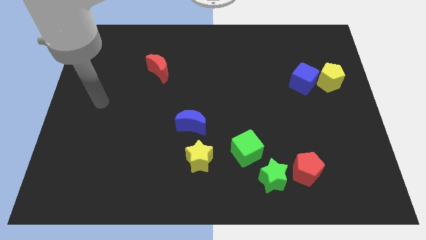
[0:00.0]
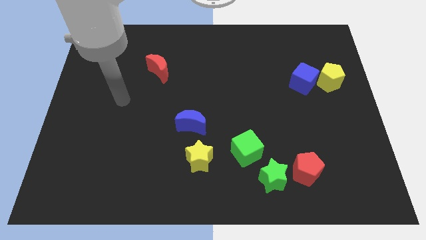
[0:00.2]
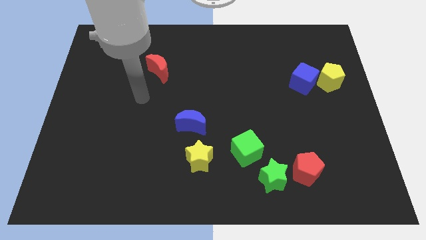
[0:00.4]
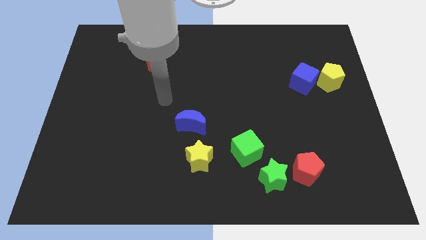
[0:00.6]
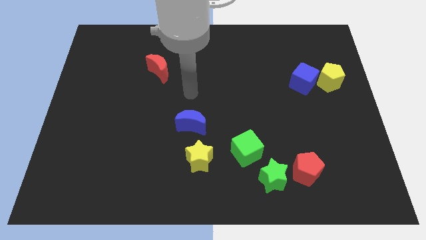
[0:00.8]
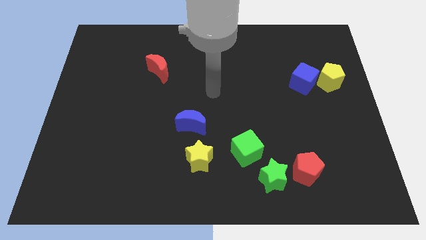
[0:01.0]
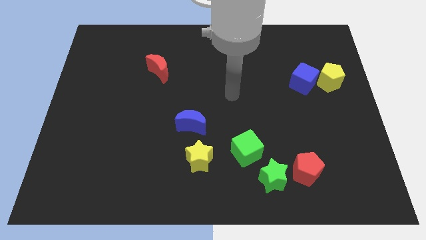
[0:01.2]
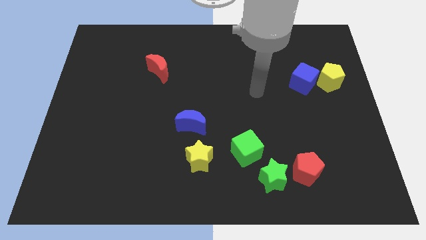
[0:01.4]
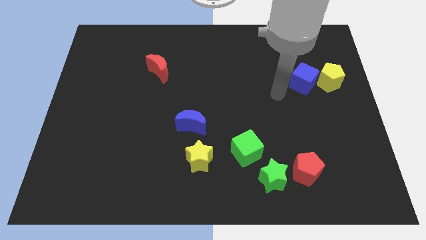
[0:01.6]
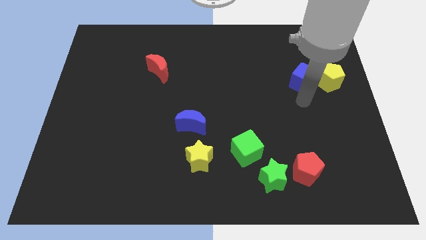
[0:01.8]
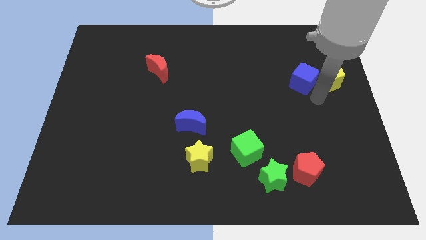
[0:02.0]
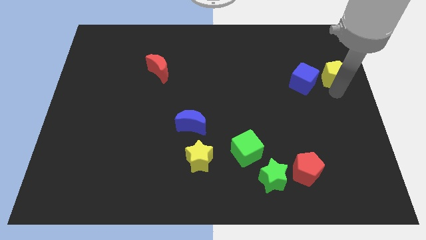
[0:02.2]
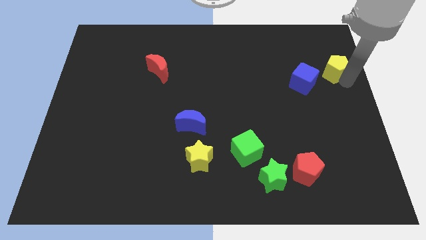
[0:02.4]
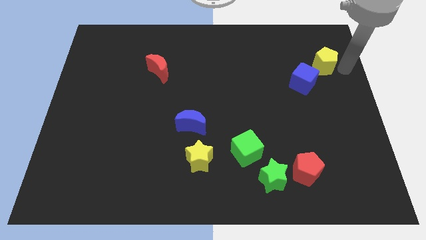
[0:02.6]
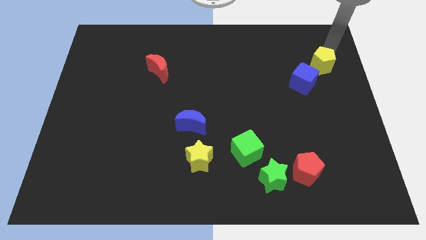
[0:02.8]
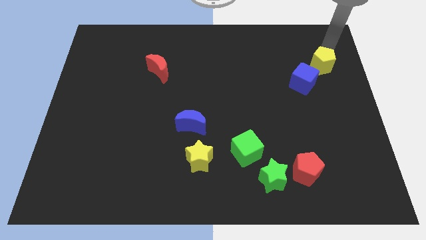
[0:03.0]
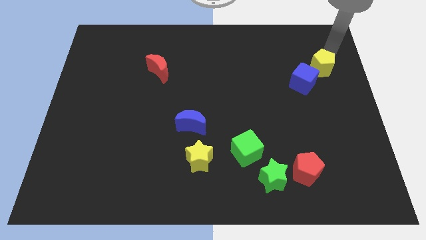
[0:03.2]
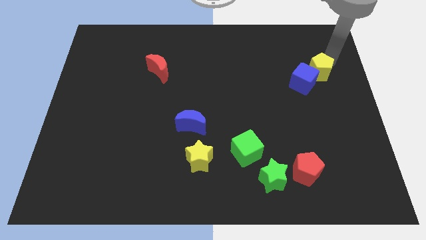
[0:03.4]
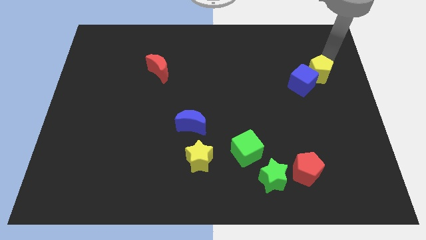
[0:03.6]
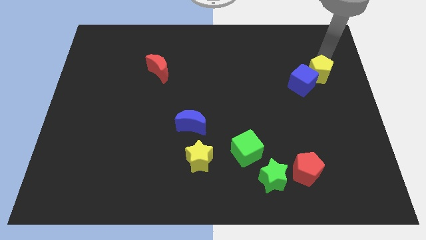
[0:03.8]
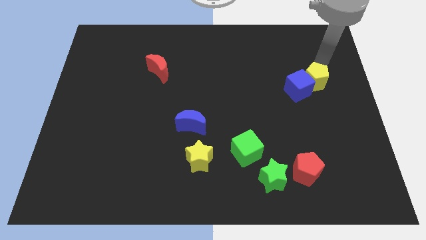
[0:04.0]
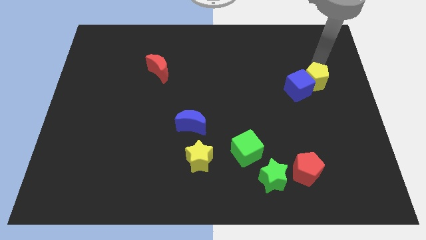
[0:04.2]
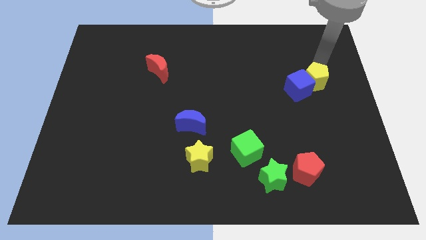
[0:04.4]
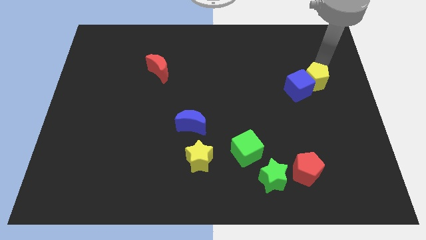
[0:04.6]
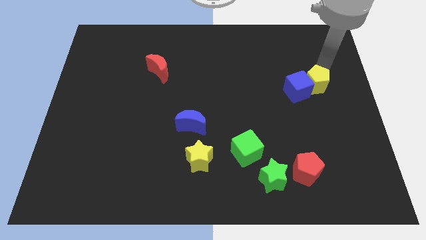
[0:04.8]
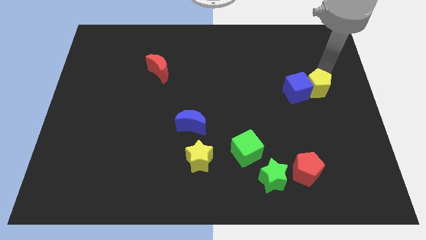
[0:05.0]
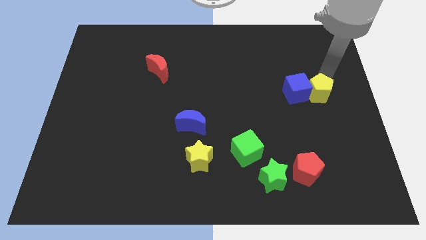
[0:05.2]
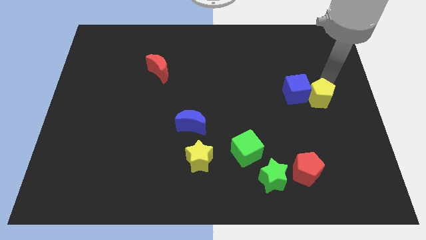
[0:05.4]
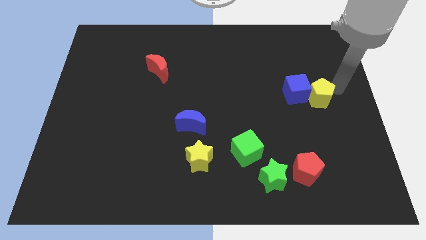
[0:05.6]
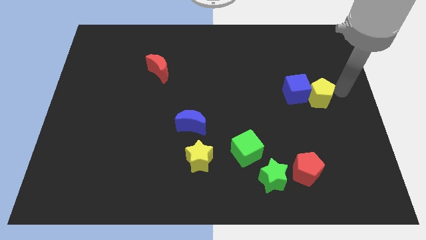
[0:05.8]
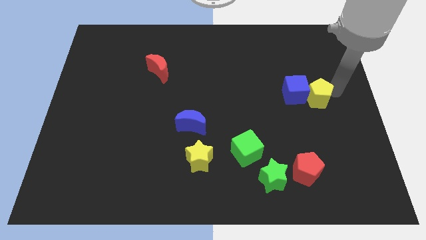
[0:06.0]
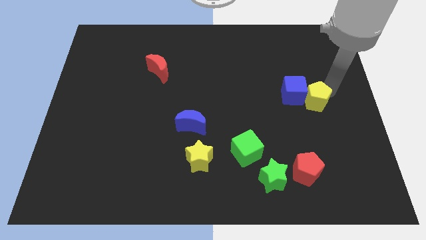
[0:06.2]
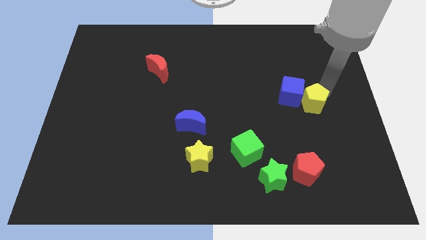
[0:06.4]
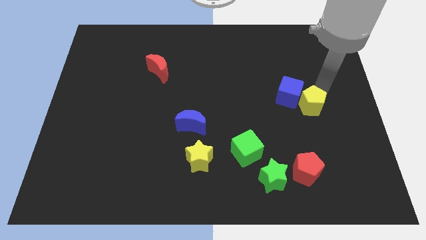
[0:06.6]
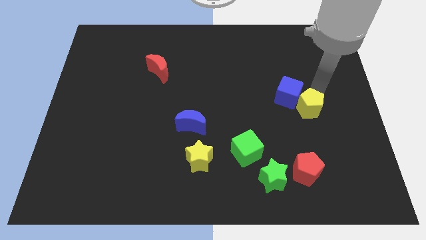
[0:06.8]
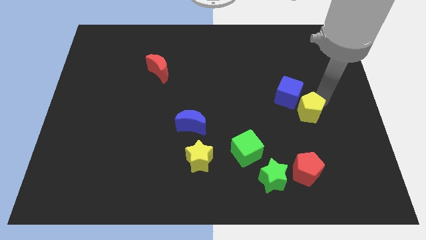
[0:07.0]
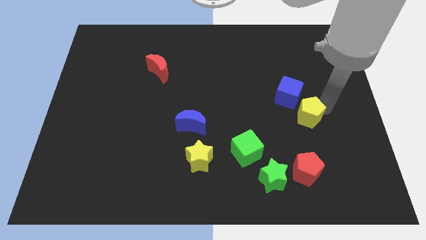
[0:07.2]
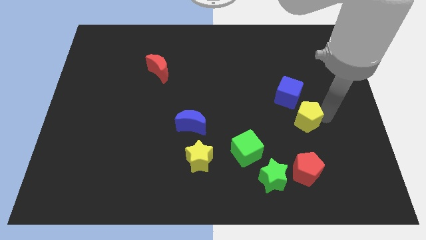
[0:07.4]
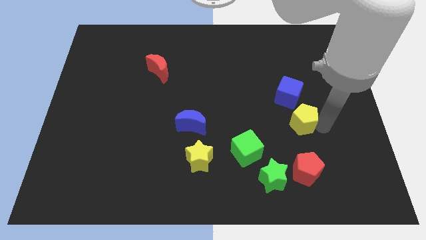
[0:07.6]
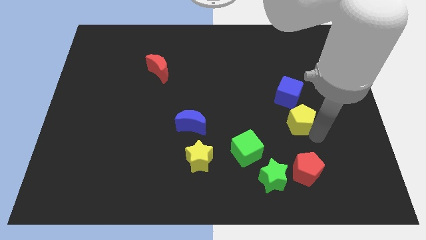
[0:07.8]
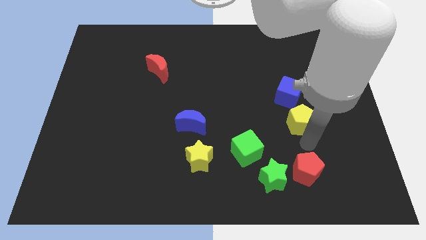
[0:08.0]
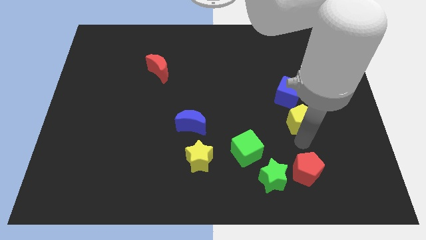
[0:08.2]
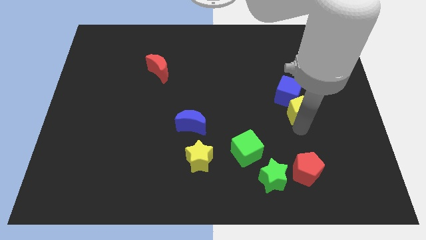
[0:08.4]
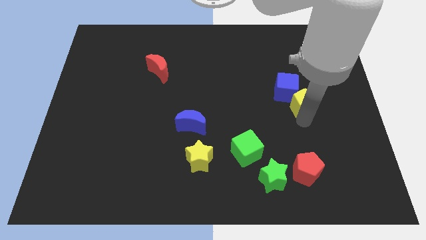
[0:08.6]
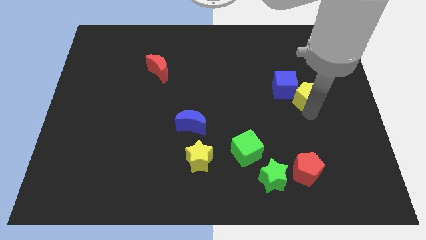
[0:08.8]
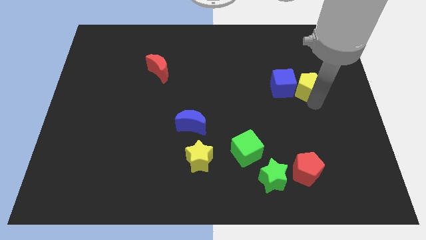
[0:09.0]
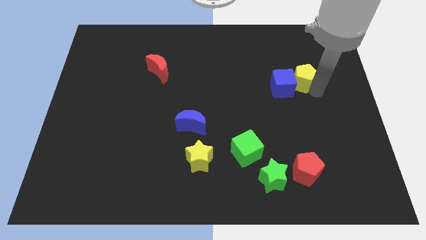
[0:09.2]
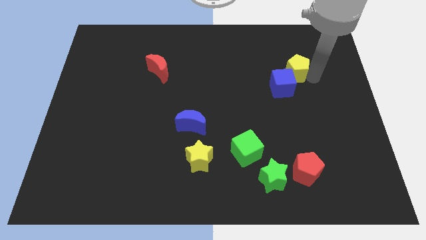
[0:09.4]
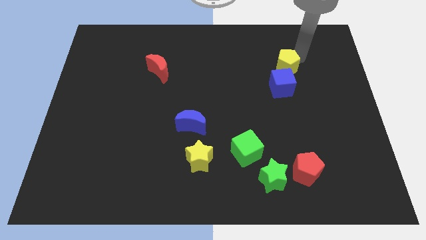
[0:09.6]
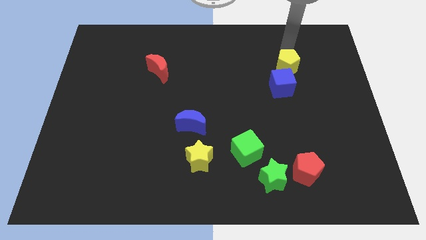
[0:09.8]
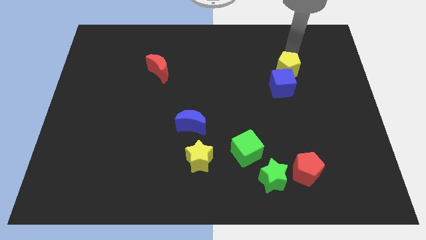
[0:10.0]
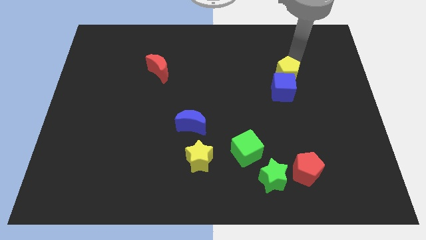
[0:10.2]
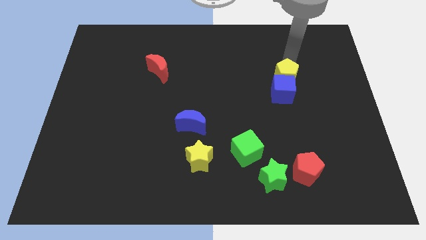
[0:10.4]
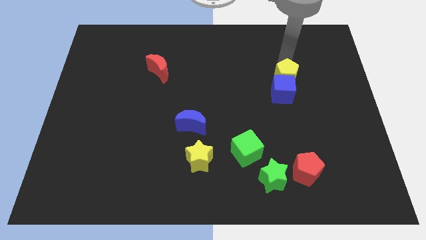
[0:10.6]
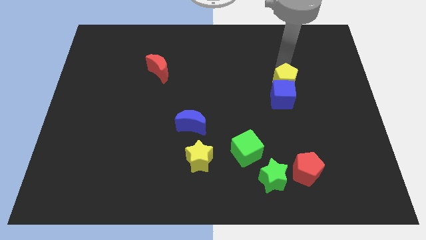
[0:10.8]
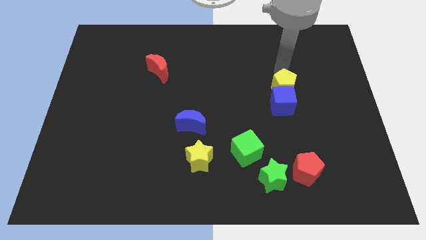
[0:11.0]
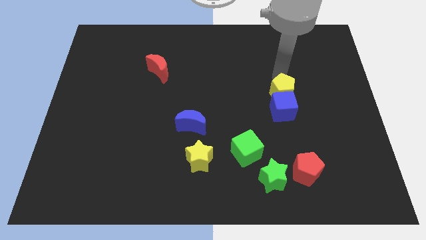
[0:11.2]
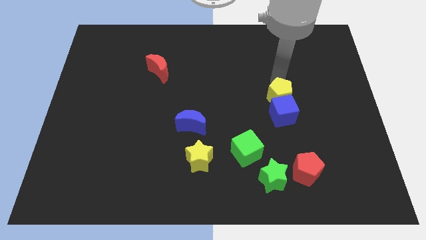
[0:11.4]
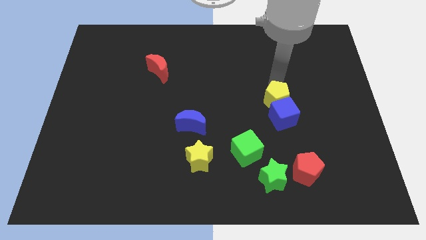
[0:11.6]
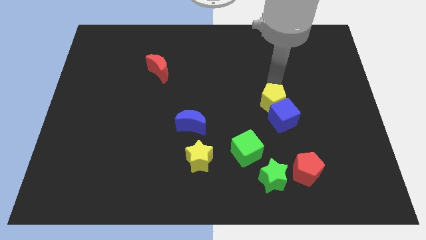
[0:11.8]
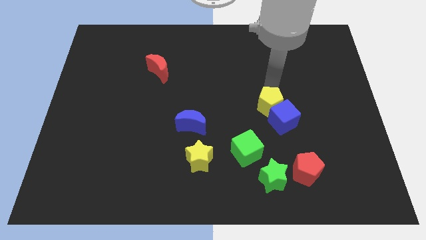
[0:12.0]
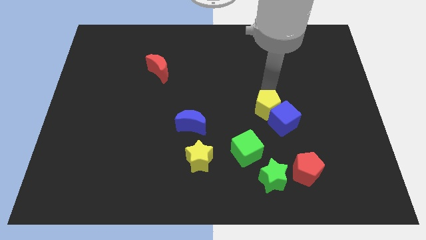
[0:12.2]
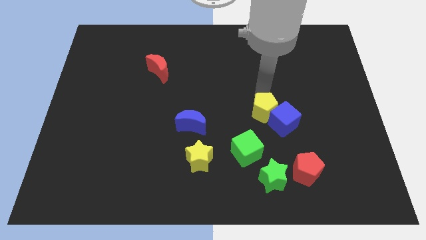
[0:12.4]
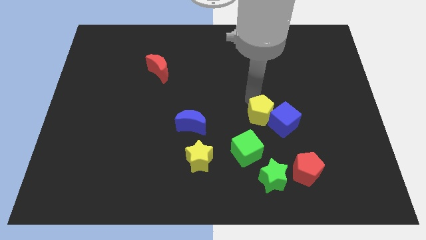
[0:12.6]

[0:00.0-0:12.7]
put the yellow pentagon to the top right side of the green cube
